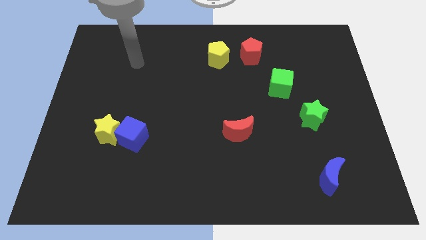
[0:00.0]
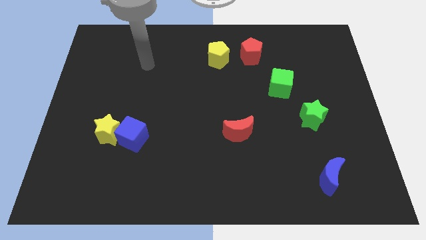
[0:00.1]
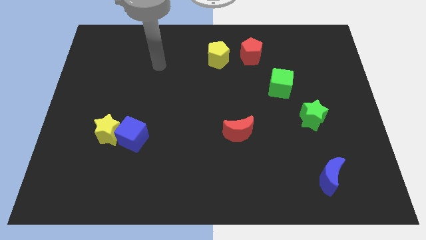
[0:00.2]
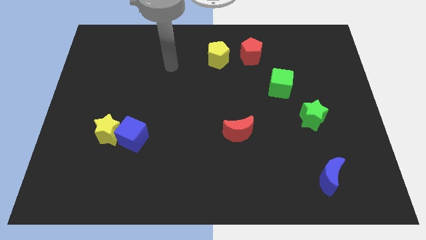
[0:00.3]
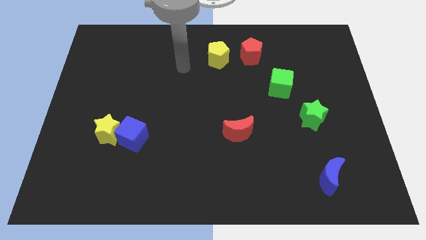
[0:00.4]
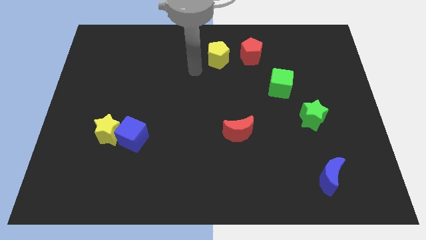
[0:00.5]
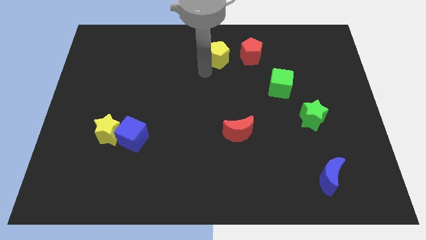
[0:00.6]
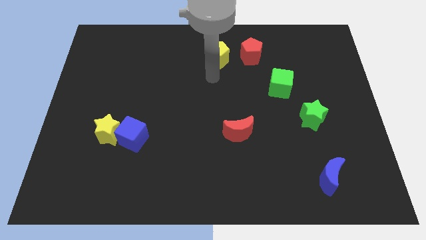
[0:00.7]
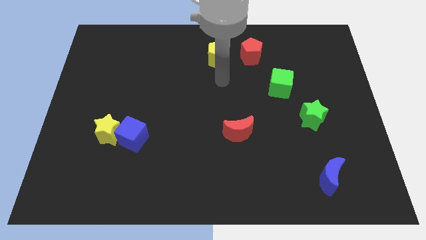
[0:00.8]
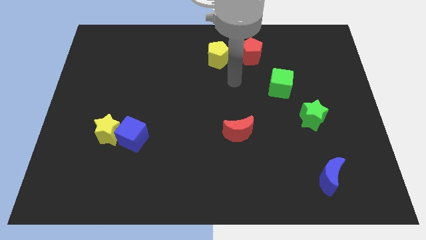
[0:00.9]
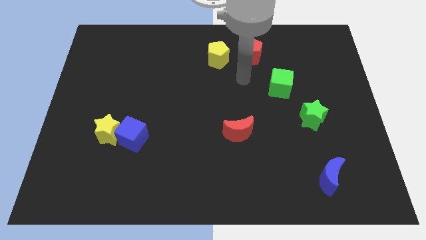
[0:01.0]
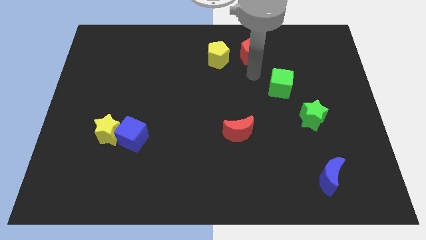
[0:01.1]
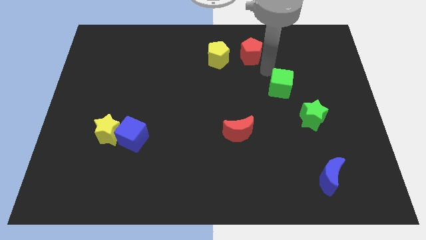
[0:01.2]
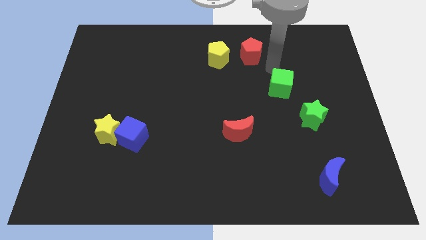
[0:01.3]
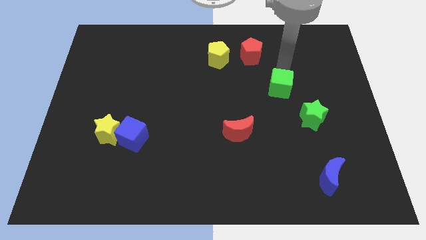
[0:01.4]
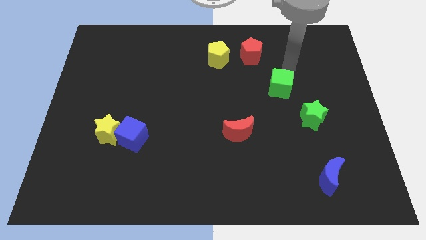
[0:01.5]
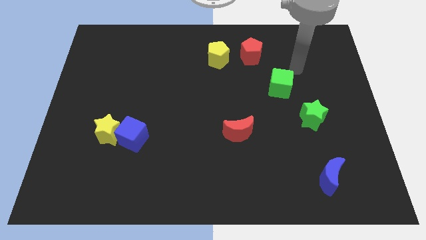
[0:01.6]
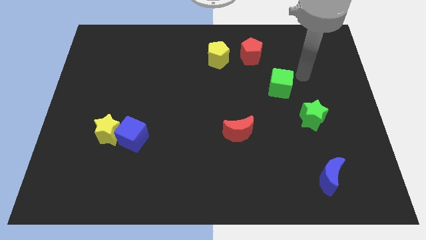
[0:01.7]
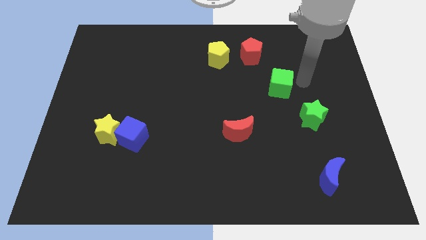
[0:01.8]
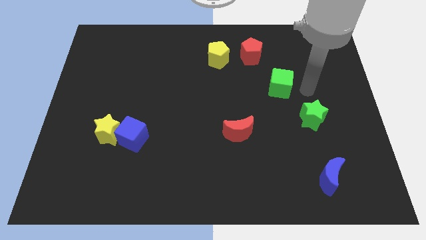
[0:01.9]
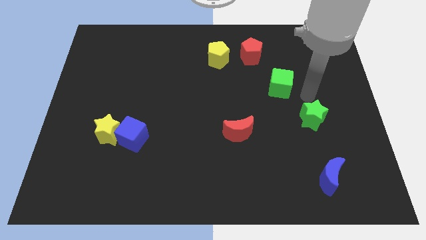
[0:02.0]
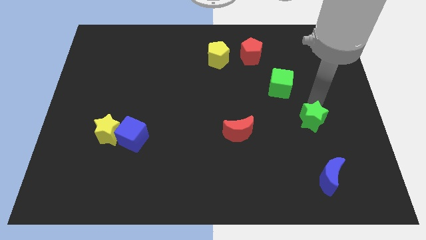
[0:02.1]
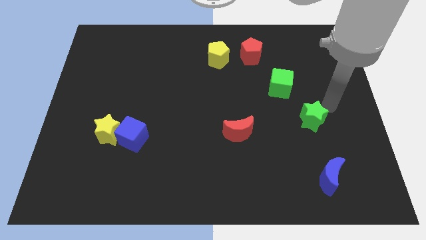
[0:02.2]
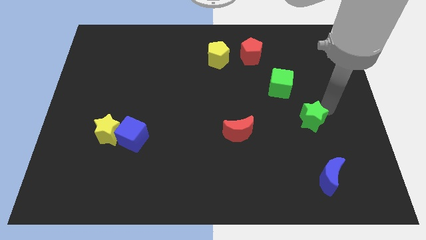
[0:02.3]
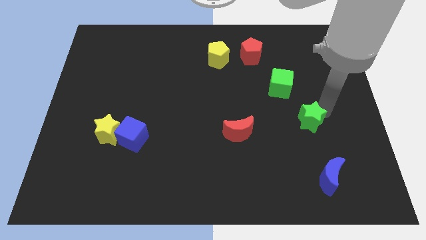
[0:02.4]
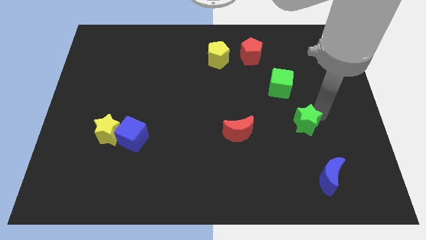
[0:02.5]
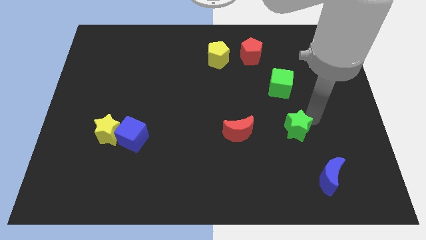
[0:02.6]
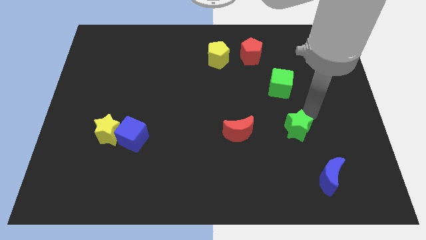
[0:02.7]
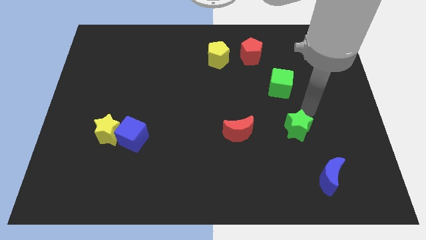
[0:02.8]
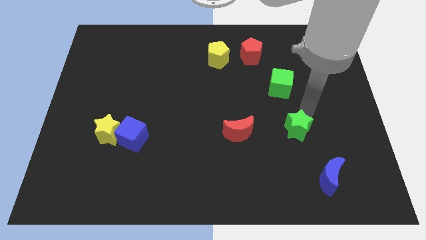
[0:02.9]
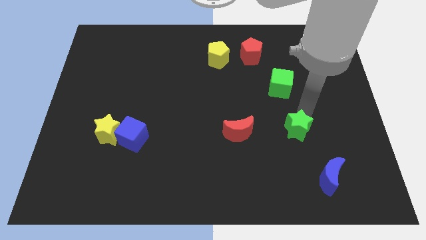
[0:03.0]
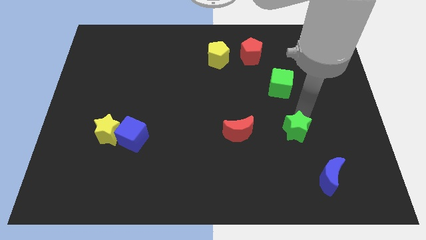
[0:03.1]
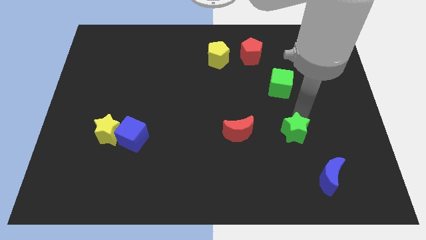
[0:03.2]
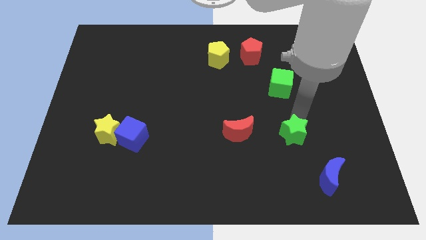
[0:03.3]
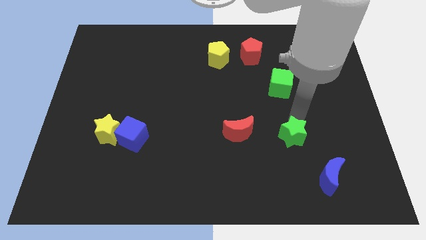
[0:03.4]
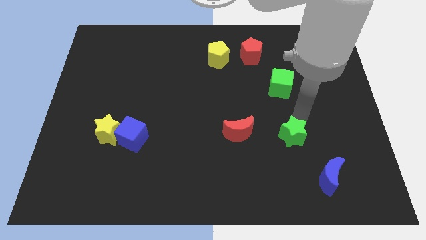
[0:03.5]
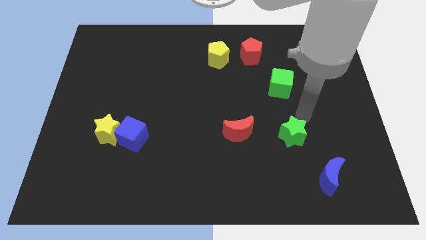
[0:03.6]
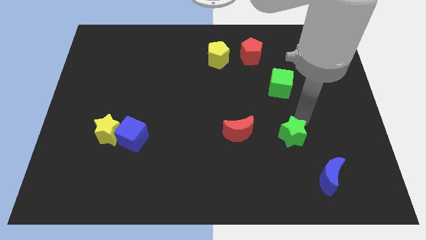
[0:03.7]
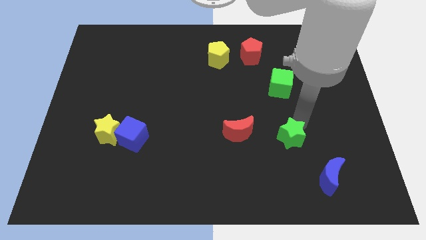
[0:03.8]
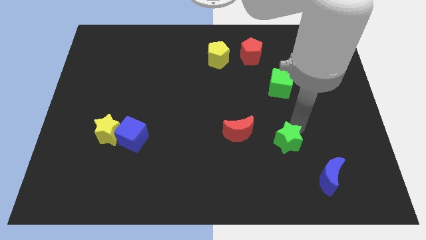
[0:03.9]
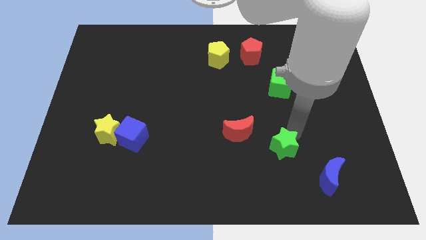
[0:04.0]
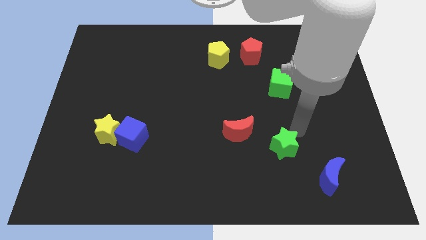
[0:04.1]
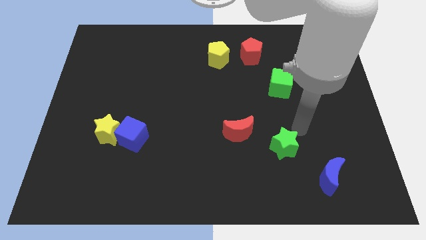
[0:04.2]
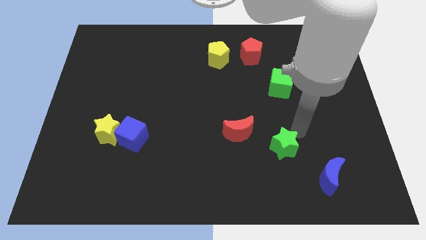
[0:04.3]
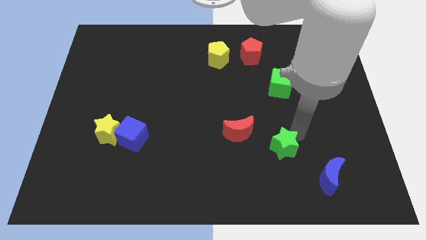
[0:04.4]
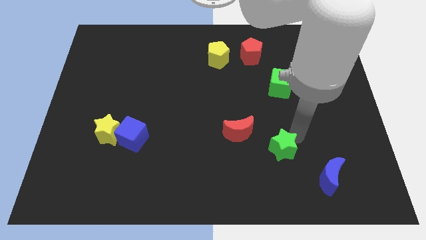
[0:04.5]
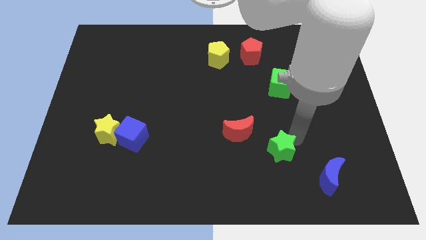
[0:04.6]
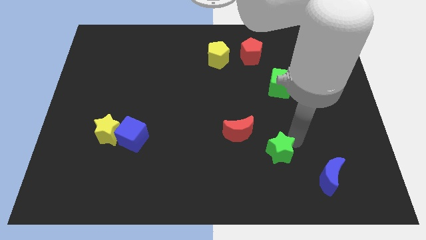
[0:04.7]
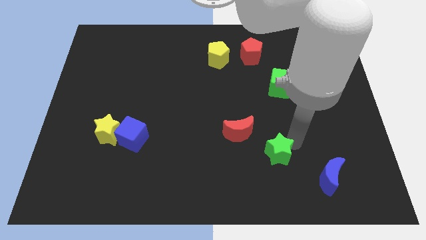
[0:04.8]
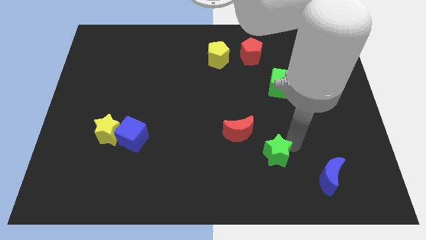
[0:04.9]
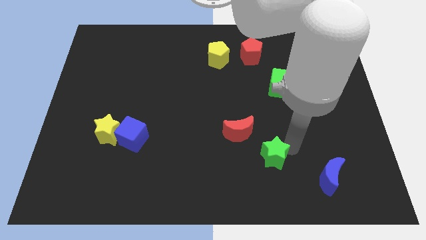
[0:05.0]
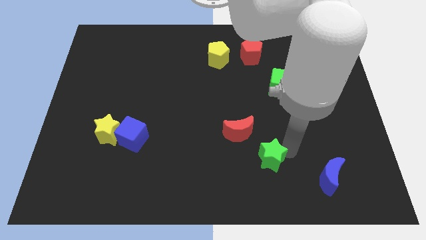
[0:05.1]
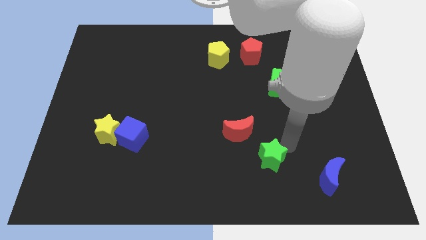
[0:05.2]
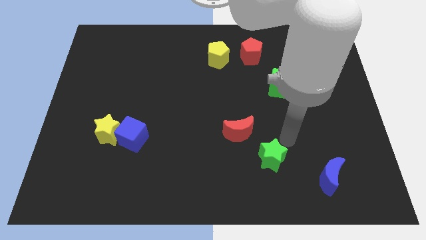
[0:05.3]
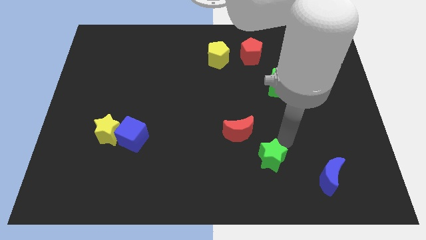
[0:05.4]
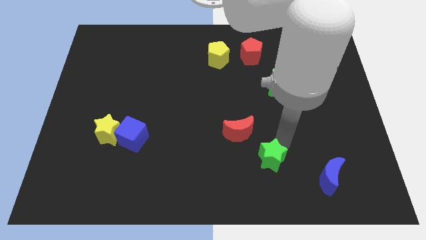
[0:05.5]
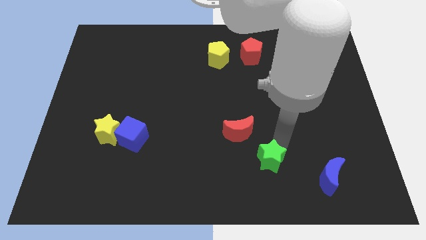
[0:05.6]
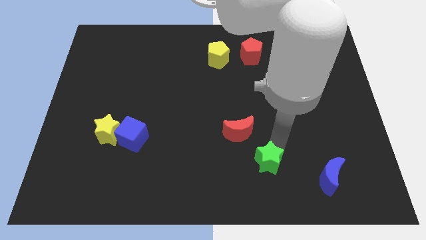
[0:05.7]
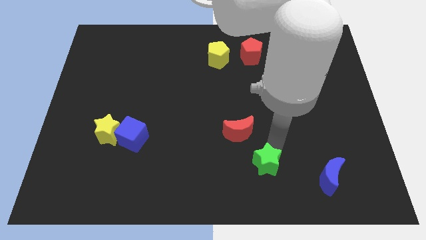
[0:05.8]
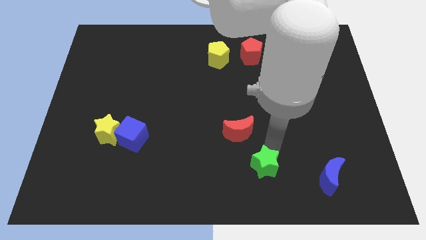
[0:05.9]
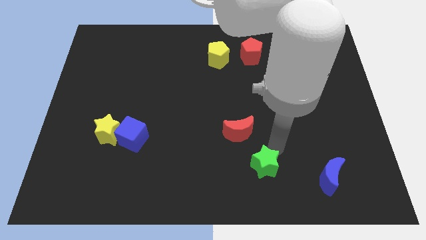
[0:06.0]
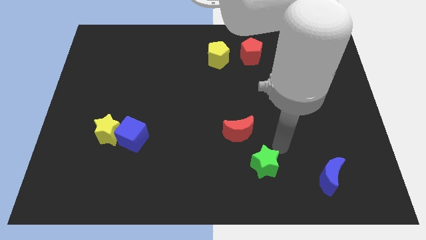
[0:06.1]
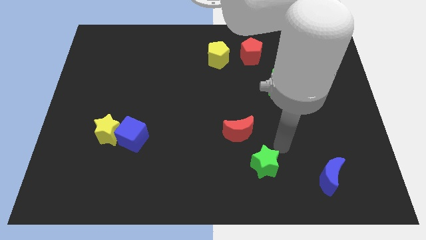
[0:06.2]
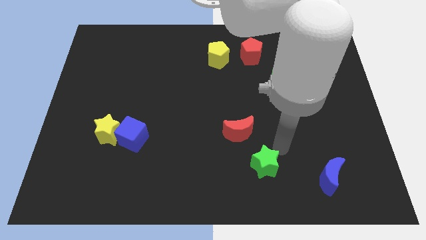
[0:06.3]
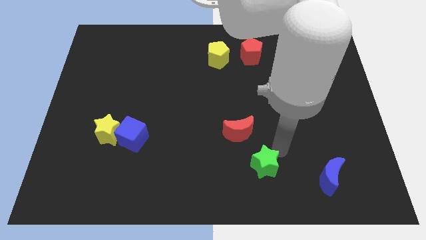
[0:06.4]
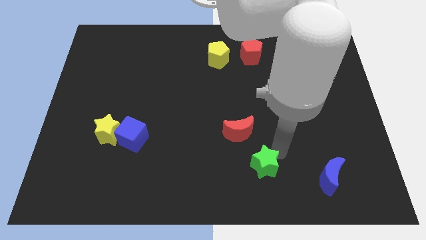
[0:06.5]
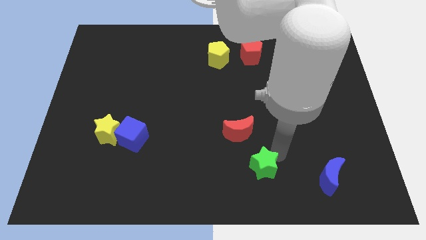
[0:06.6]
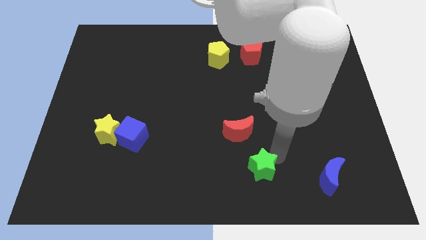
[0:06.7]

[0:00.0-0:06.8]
move the green star to the bottom

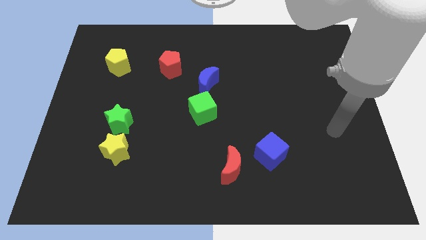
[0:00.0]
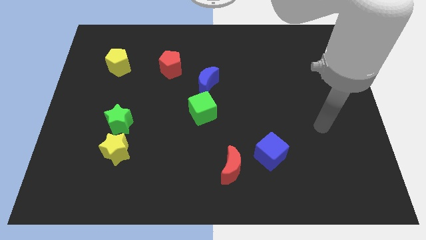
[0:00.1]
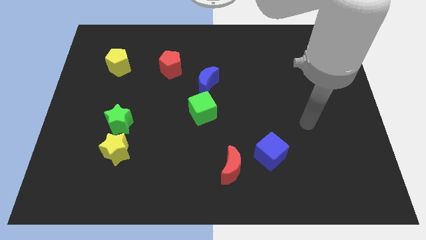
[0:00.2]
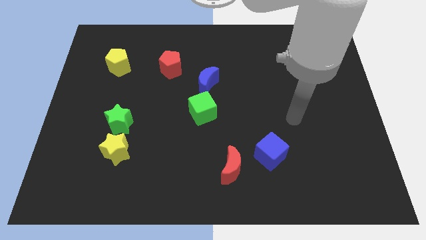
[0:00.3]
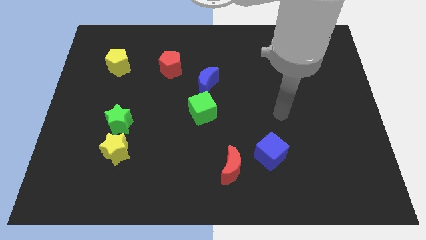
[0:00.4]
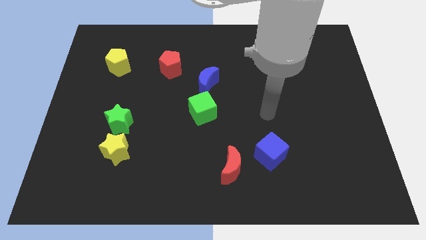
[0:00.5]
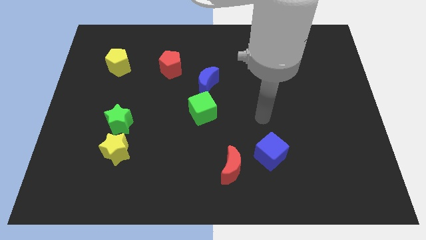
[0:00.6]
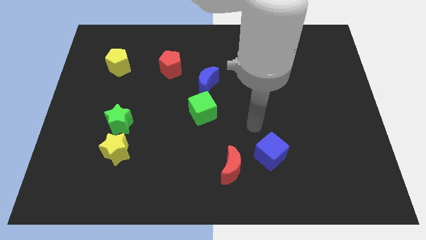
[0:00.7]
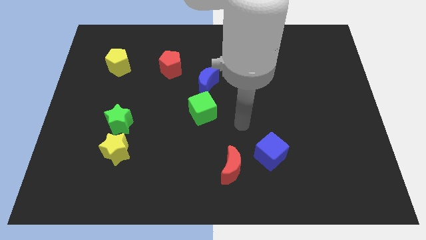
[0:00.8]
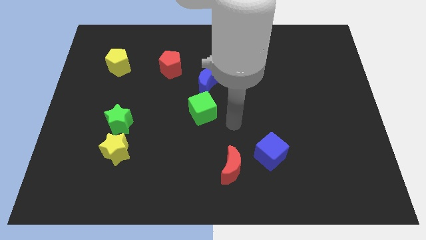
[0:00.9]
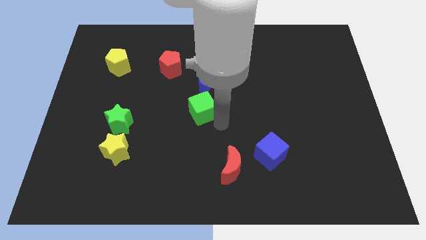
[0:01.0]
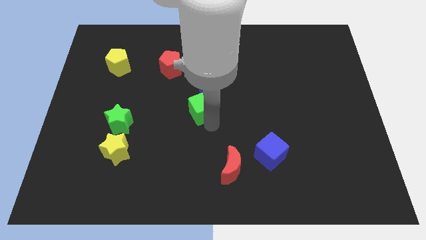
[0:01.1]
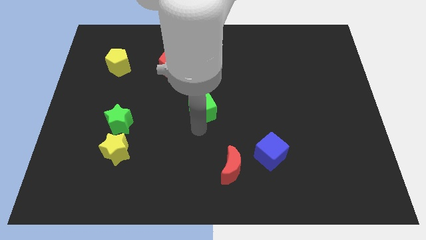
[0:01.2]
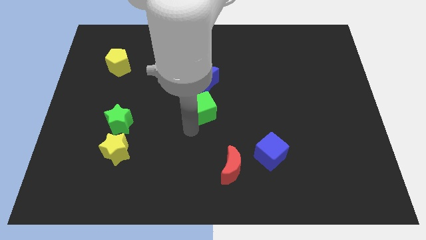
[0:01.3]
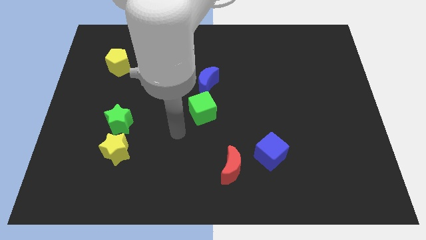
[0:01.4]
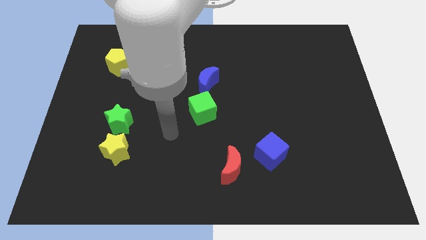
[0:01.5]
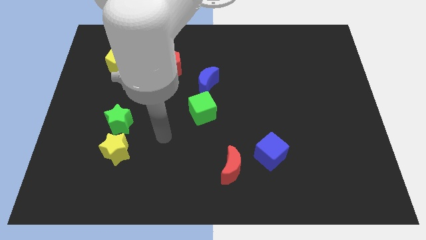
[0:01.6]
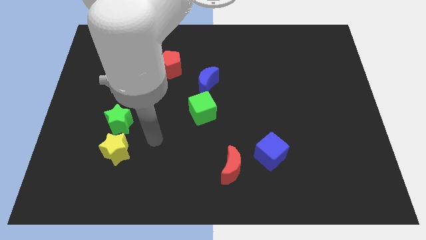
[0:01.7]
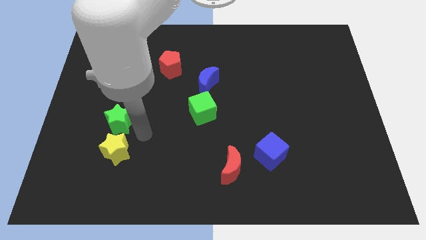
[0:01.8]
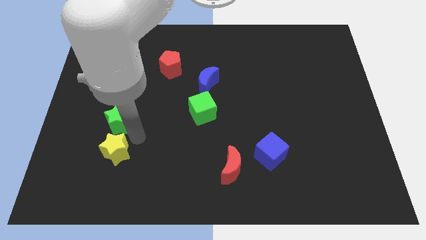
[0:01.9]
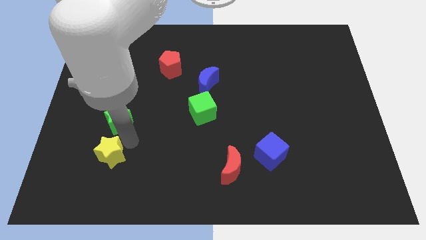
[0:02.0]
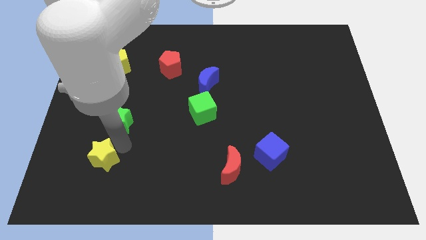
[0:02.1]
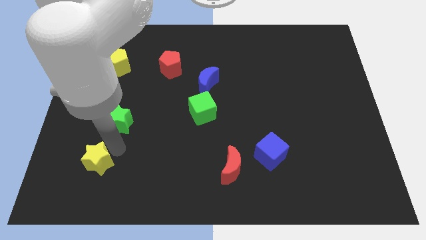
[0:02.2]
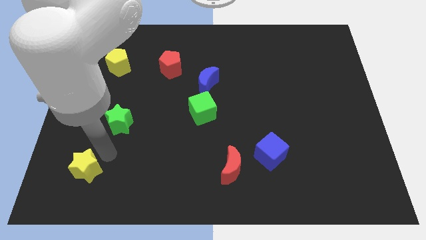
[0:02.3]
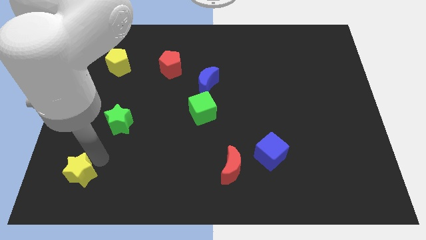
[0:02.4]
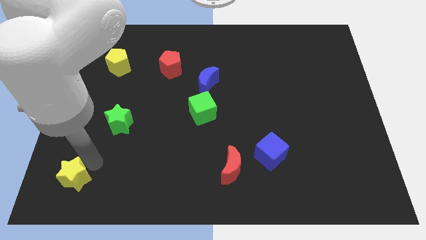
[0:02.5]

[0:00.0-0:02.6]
move the yellow star to the bottom left of the board
